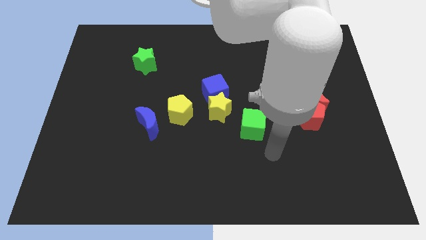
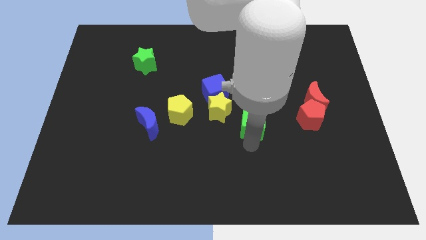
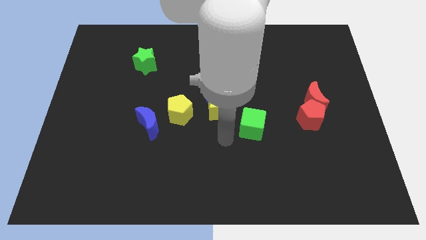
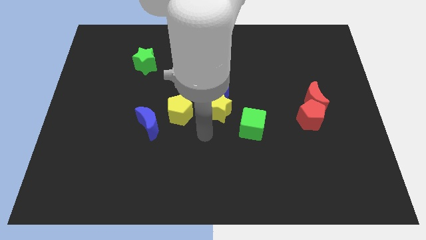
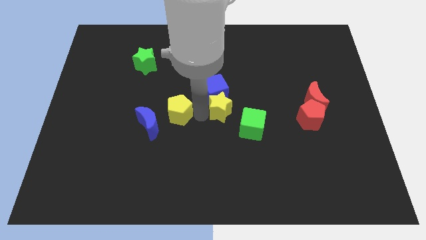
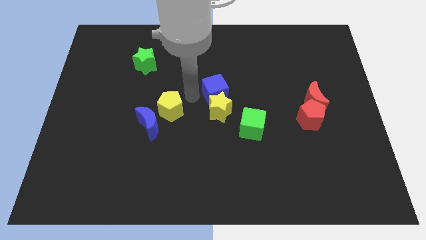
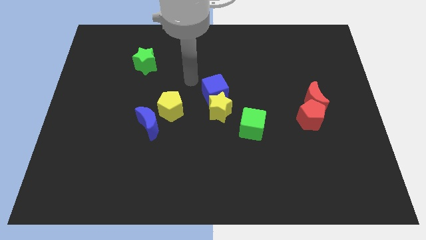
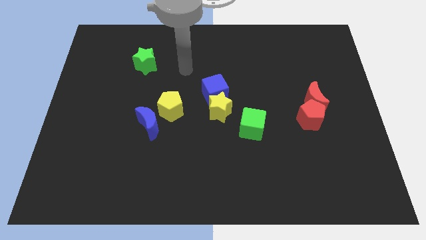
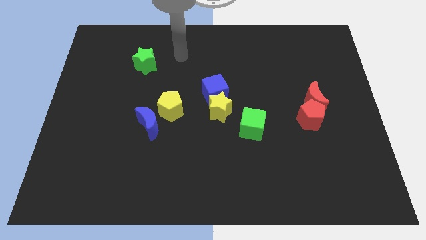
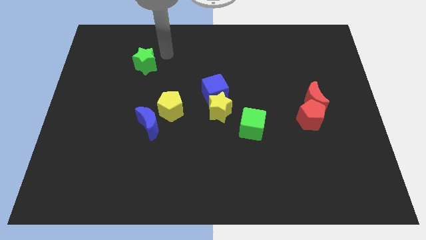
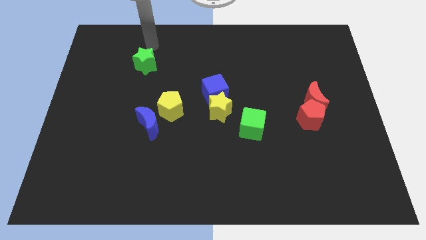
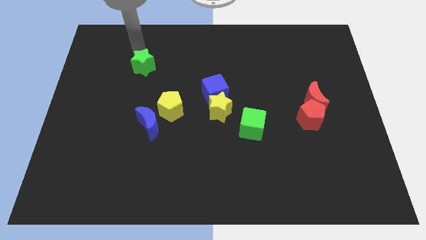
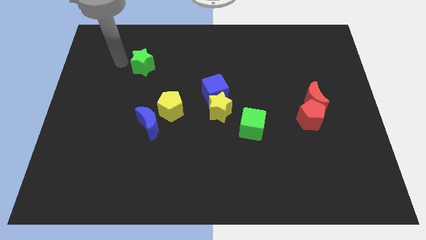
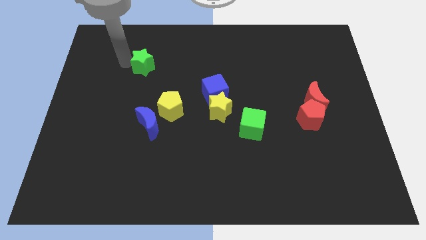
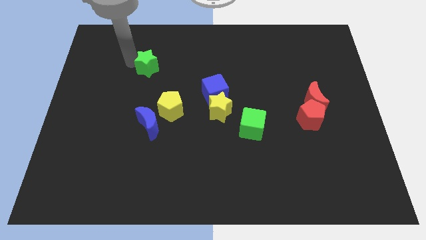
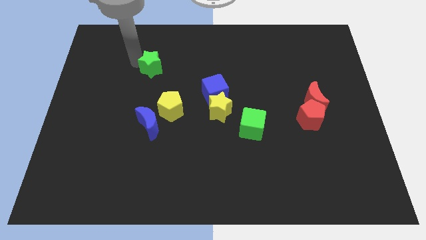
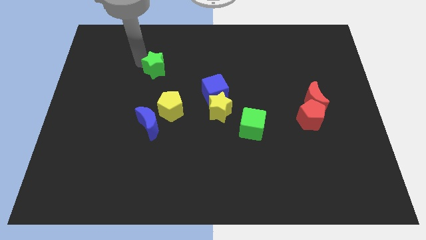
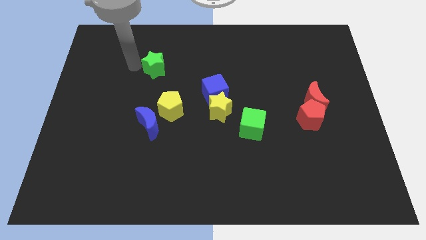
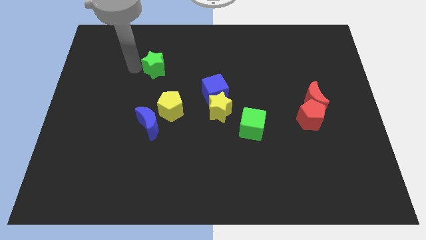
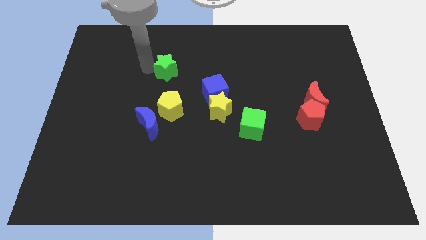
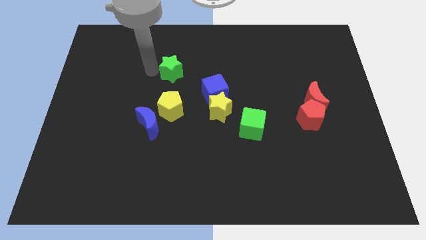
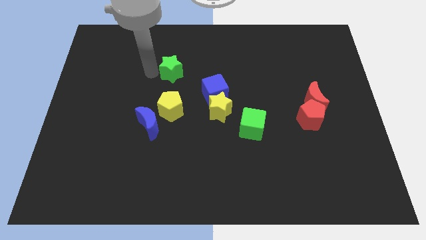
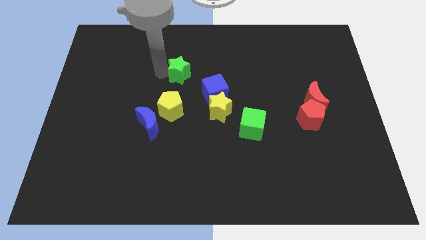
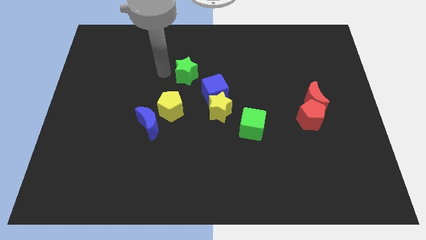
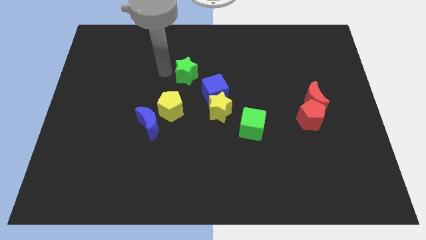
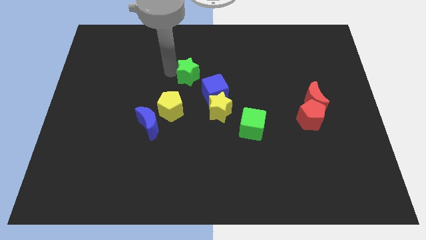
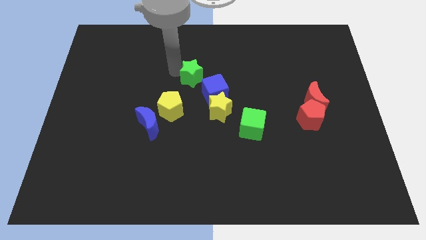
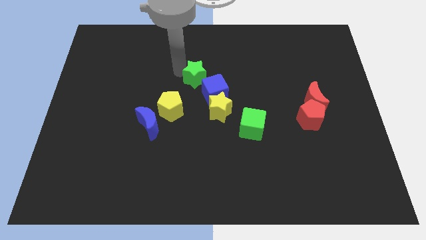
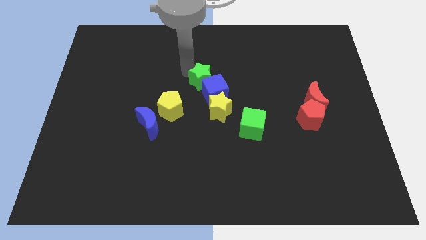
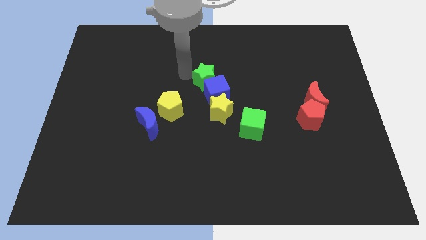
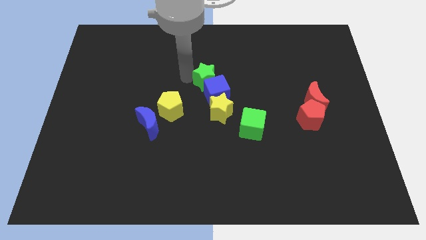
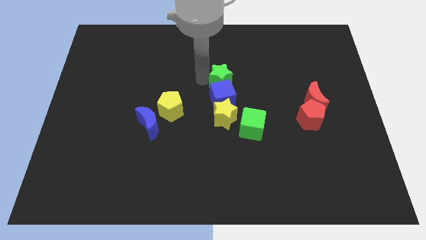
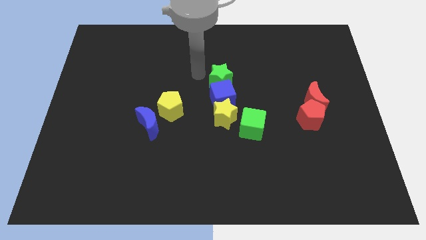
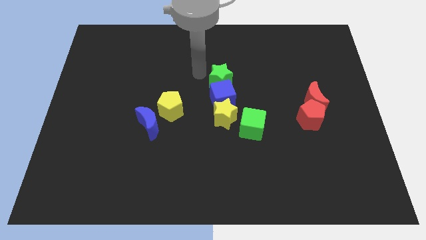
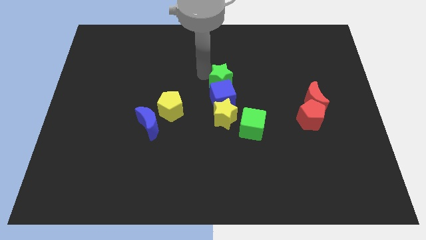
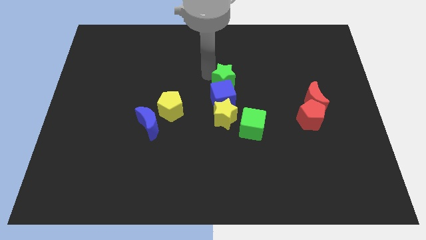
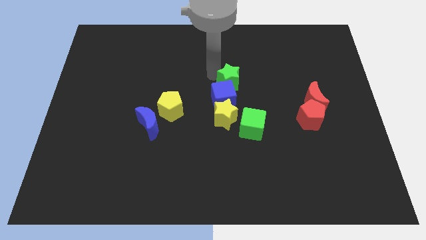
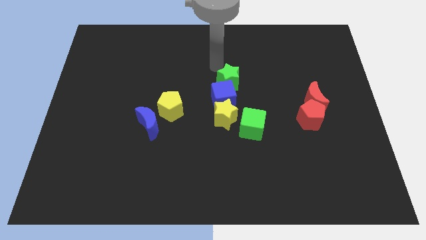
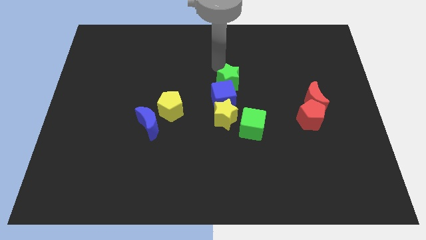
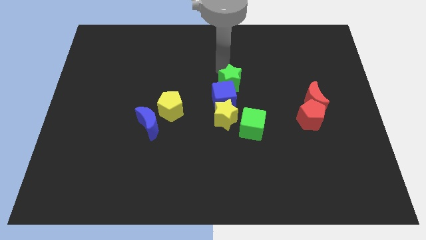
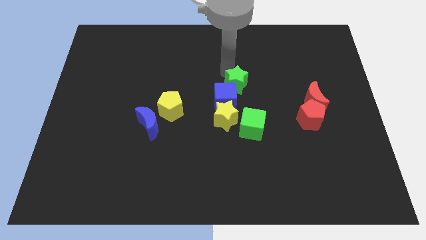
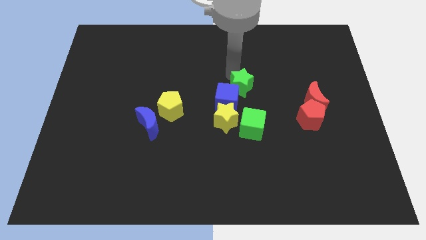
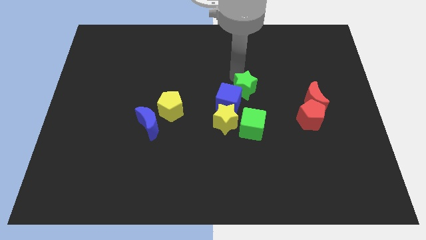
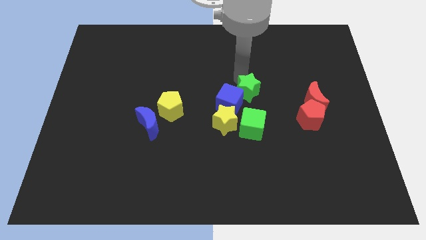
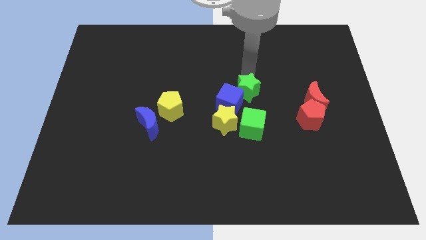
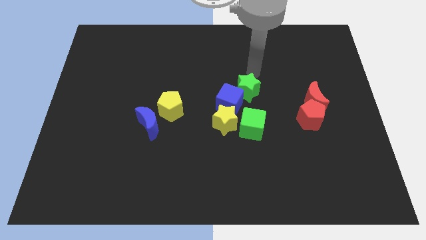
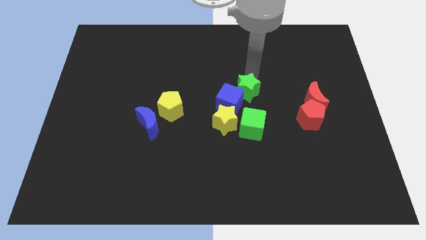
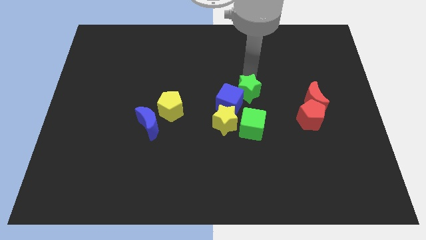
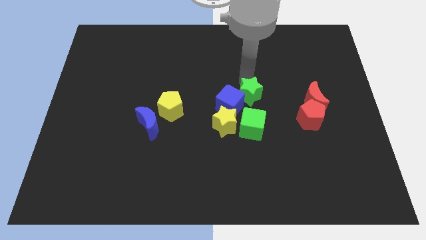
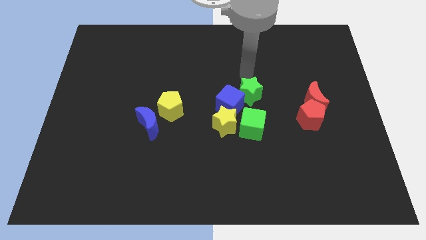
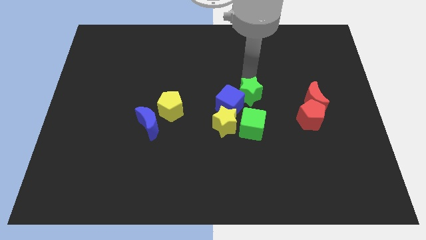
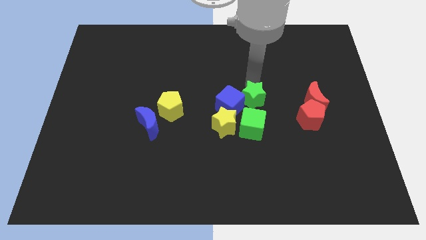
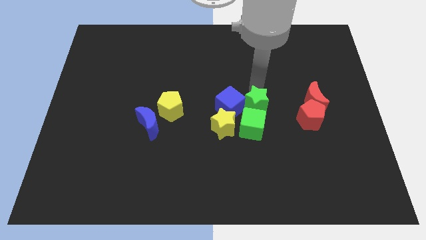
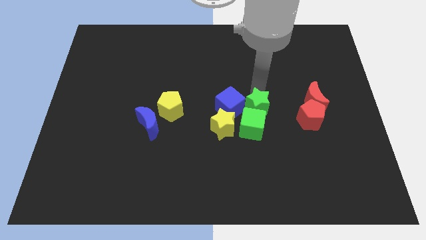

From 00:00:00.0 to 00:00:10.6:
slide the green star next to the green cube

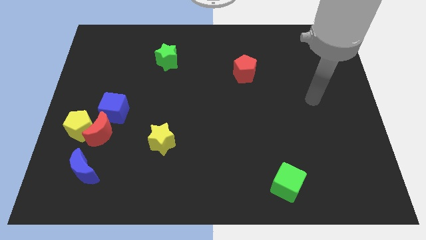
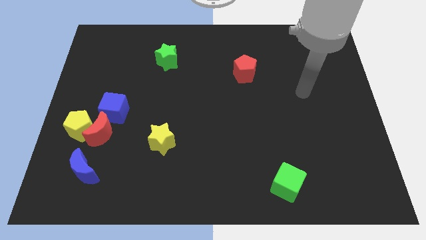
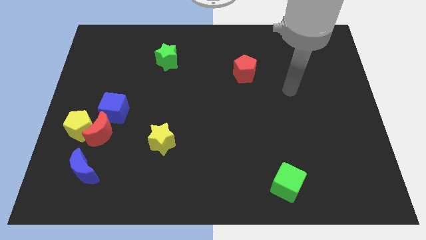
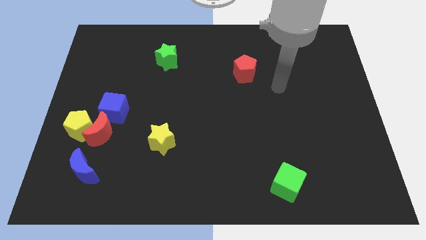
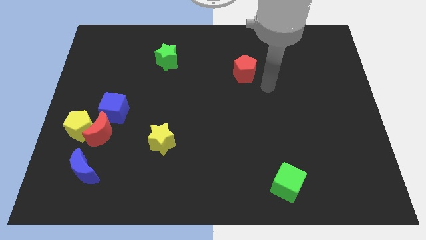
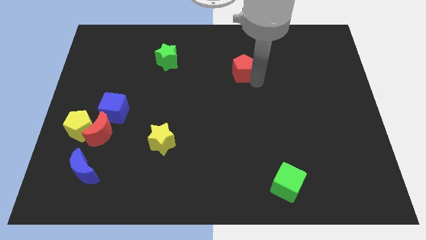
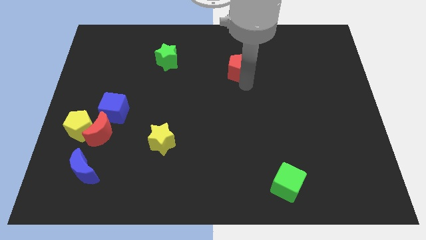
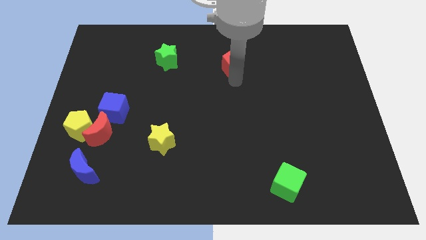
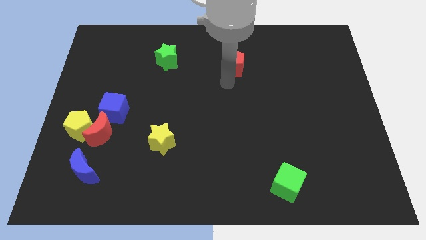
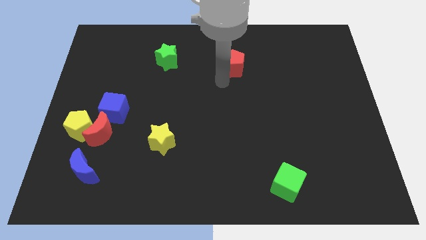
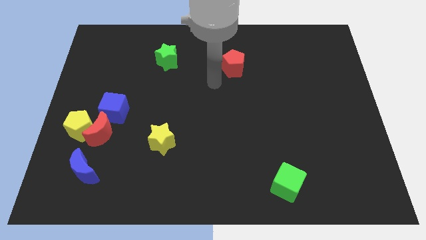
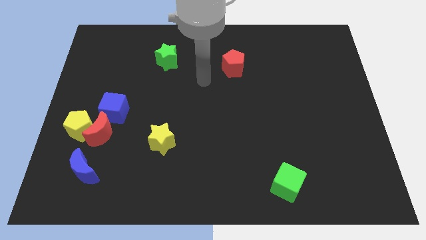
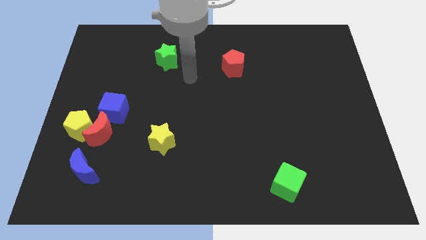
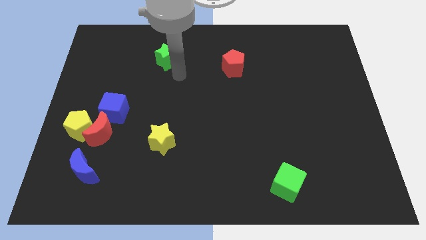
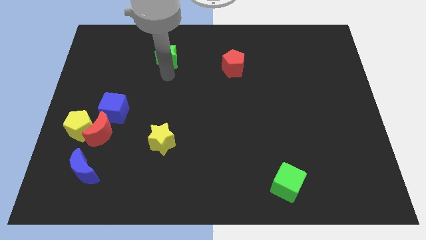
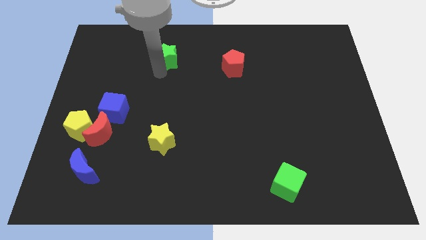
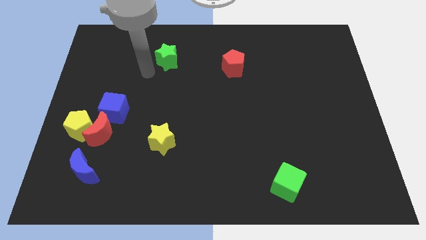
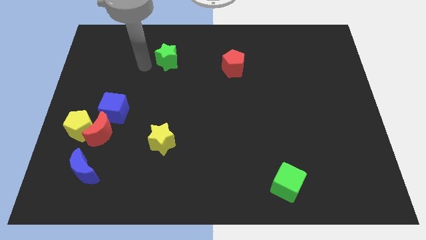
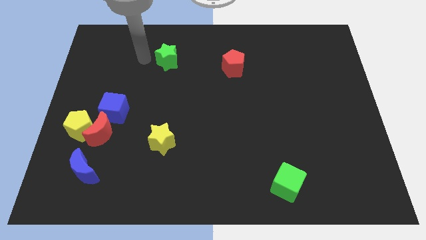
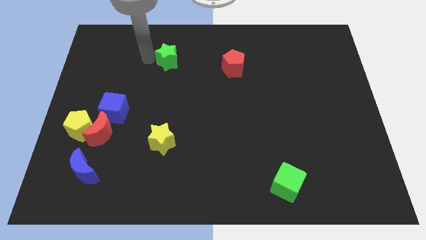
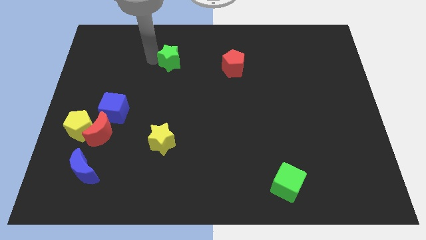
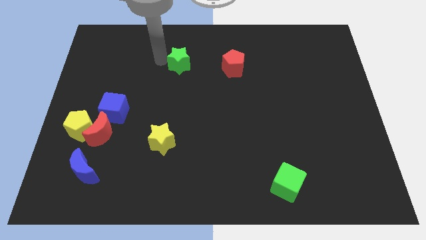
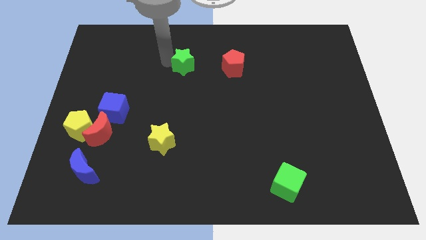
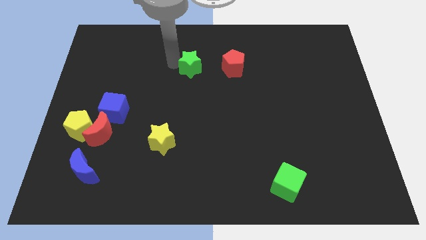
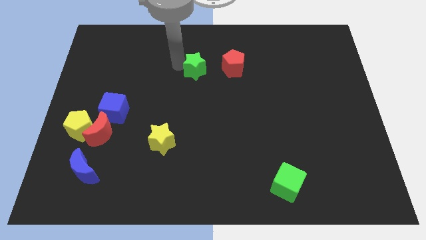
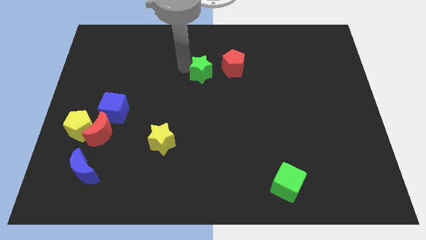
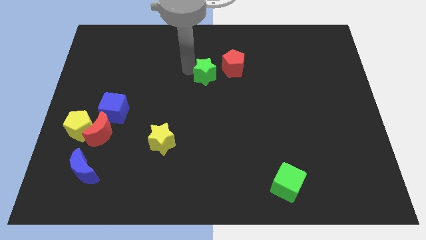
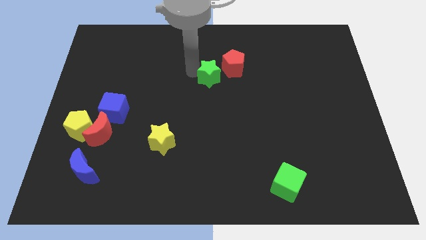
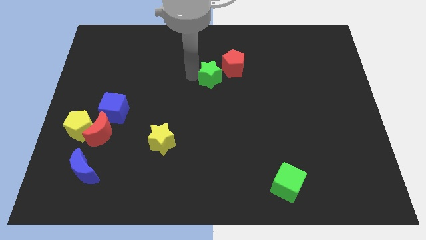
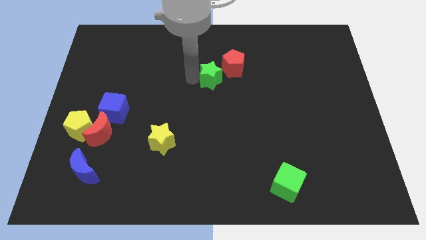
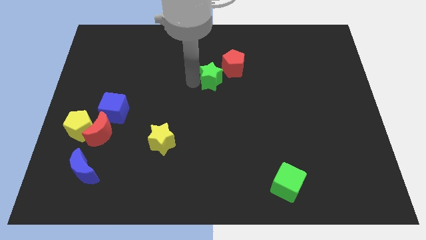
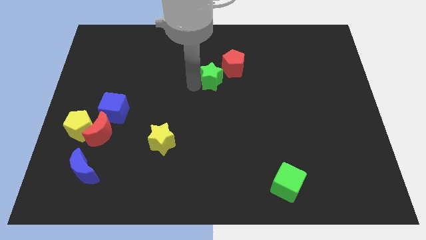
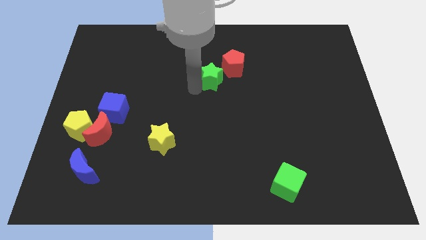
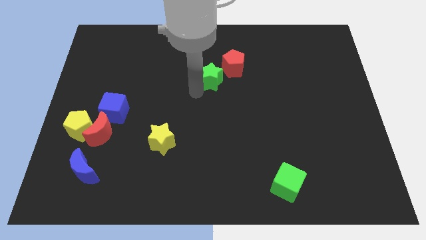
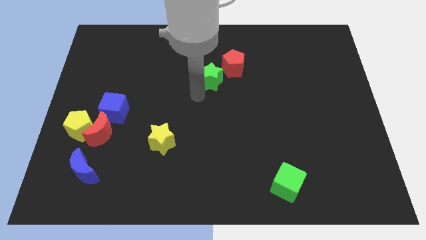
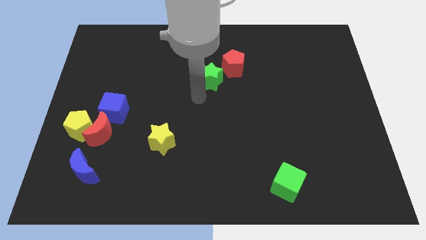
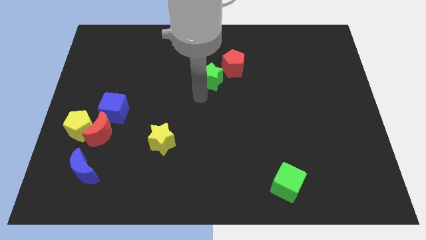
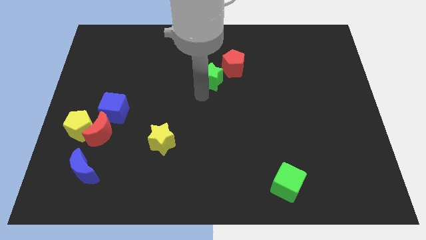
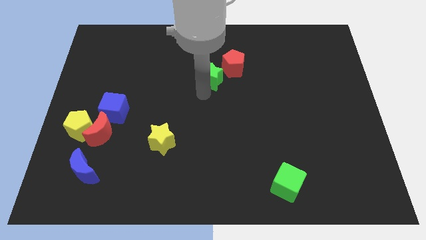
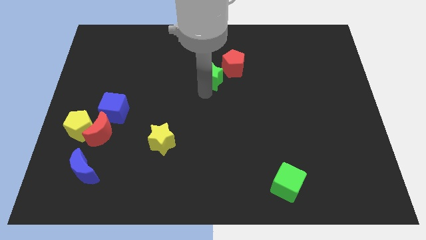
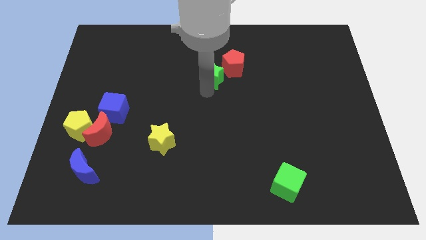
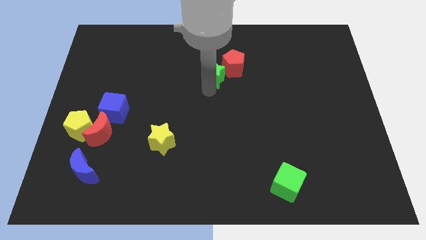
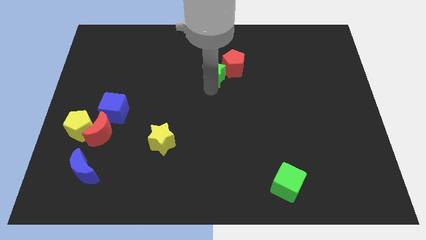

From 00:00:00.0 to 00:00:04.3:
slide the green star close to the red pentagon
